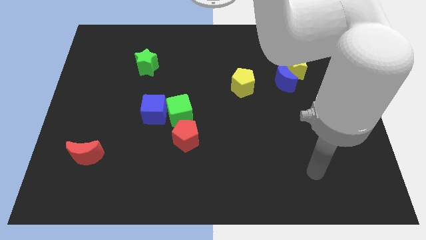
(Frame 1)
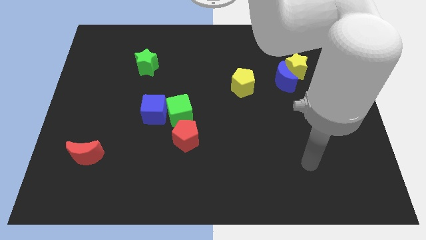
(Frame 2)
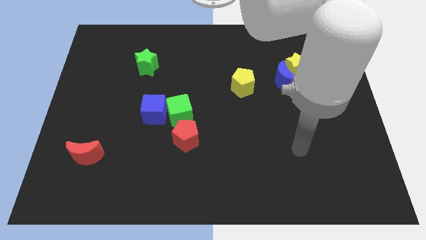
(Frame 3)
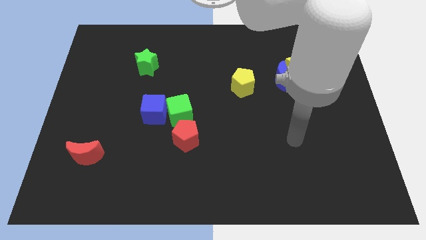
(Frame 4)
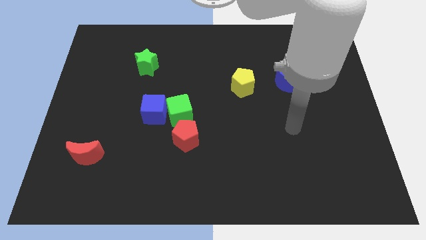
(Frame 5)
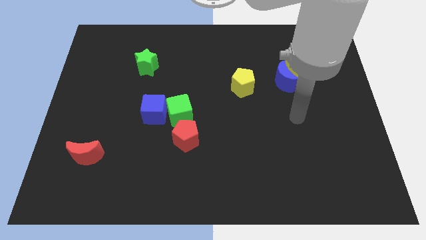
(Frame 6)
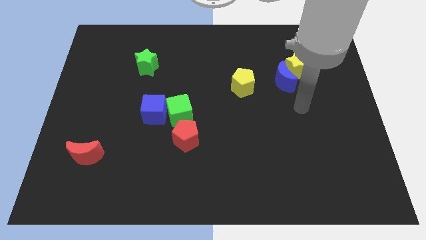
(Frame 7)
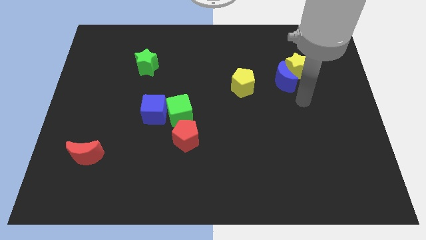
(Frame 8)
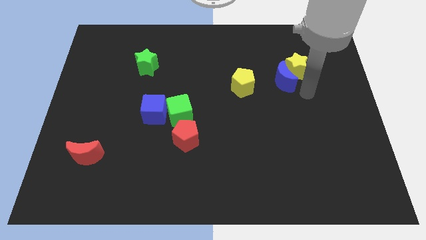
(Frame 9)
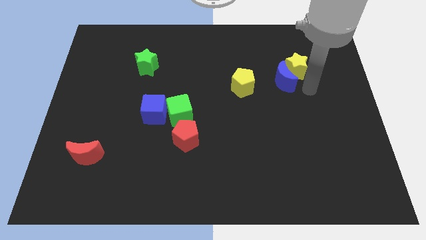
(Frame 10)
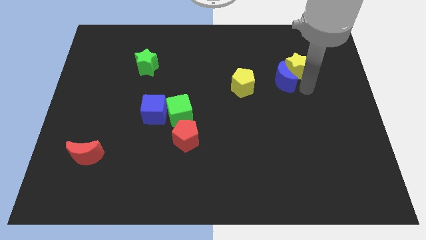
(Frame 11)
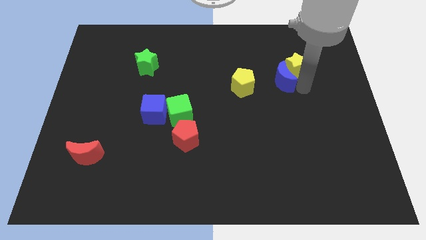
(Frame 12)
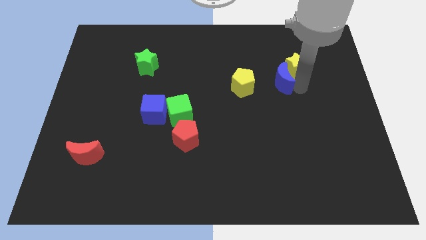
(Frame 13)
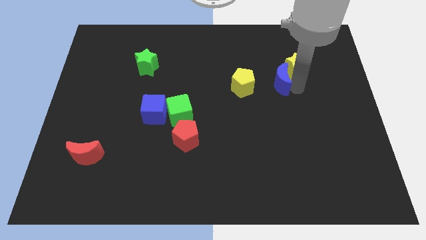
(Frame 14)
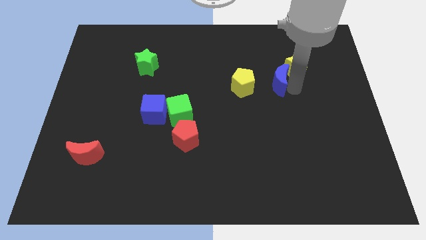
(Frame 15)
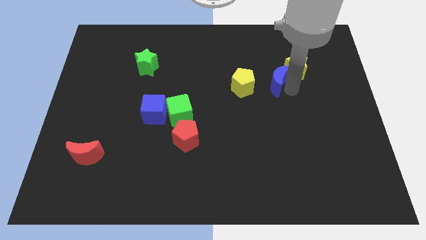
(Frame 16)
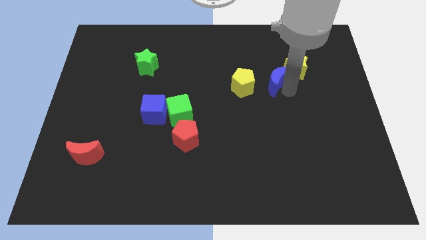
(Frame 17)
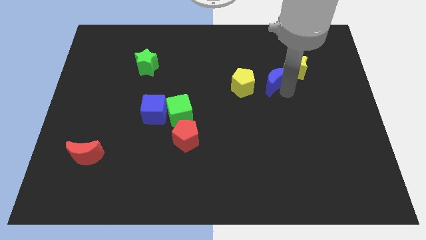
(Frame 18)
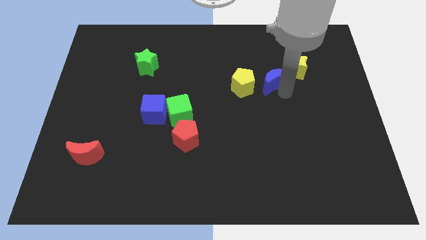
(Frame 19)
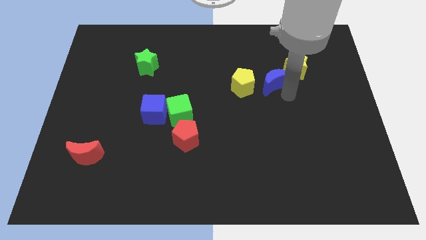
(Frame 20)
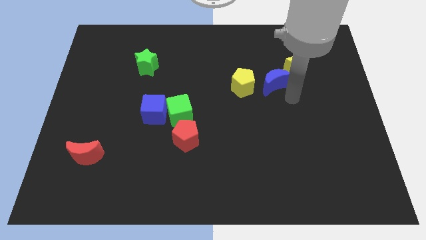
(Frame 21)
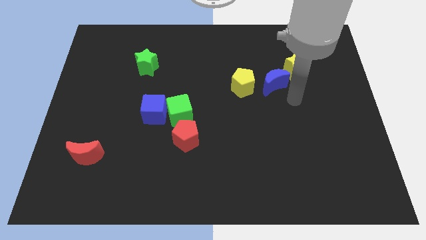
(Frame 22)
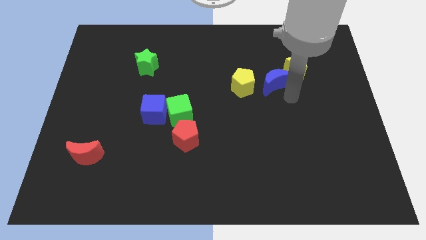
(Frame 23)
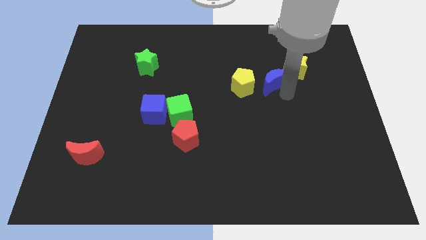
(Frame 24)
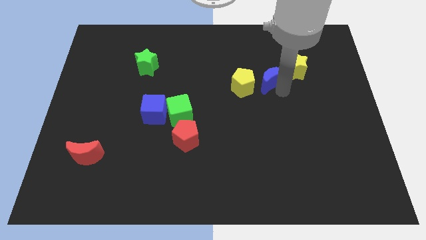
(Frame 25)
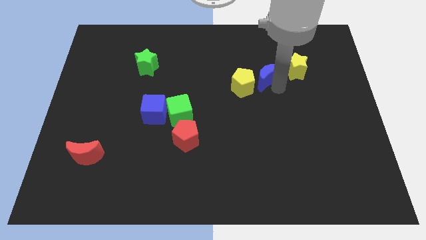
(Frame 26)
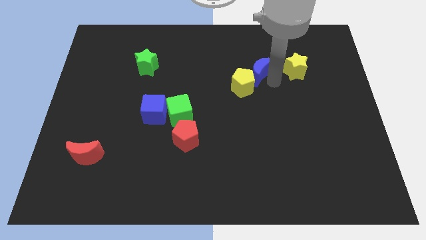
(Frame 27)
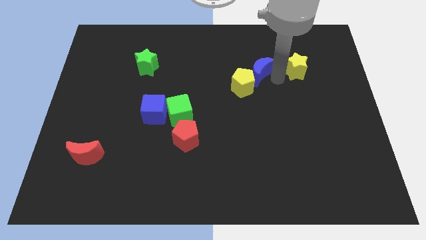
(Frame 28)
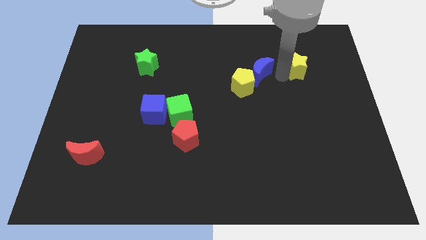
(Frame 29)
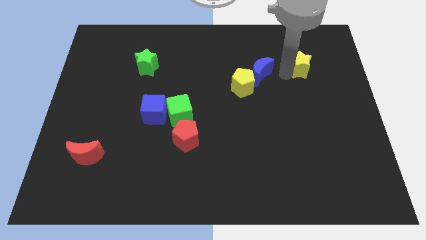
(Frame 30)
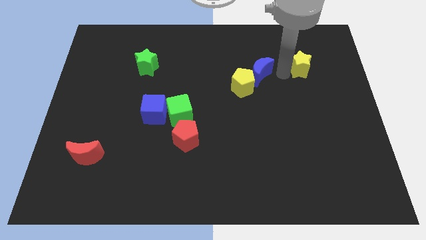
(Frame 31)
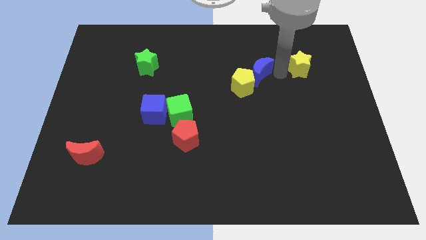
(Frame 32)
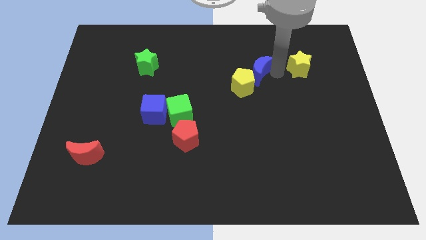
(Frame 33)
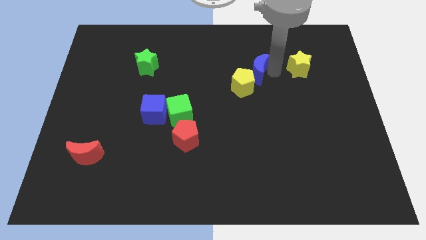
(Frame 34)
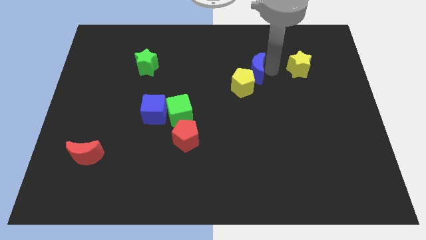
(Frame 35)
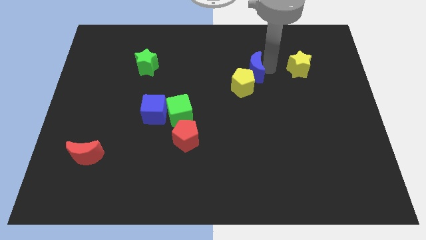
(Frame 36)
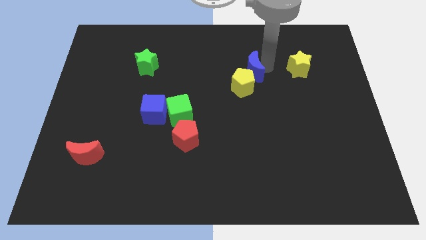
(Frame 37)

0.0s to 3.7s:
move the blue moon to the left somewhat

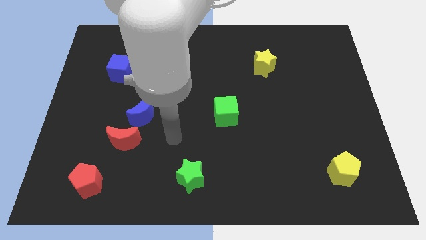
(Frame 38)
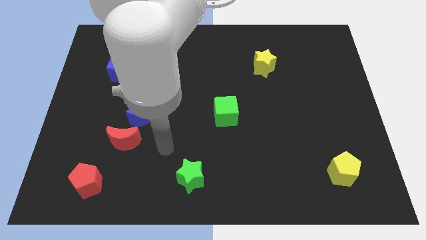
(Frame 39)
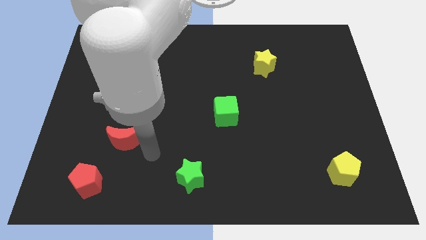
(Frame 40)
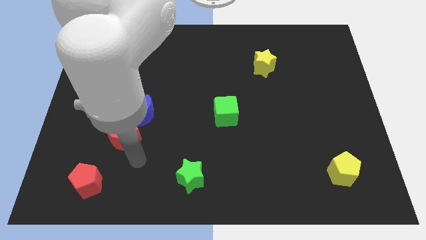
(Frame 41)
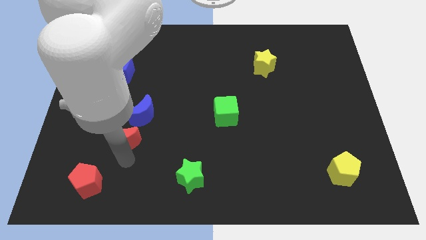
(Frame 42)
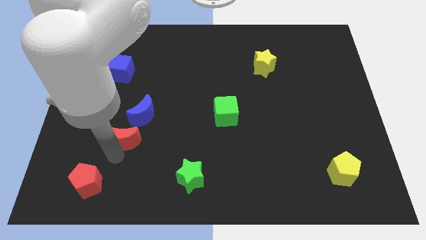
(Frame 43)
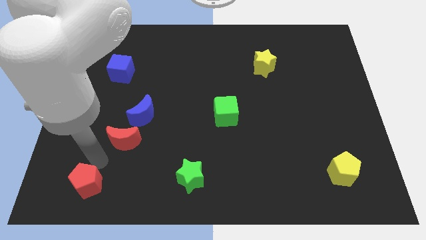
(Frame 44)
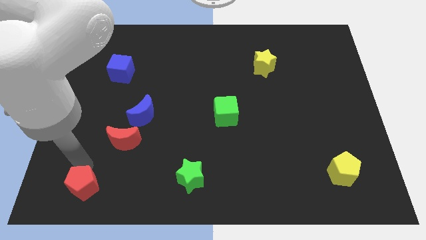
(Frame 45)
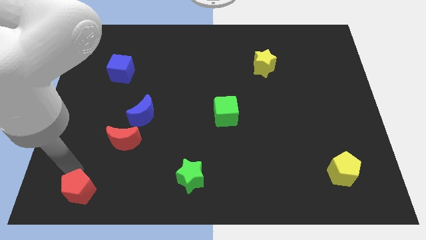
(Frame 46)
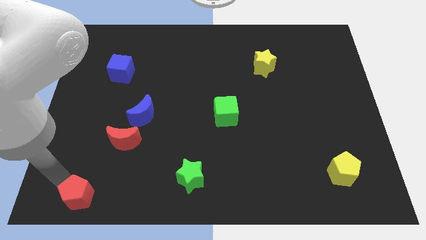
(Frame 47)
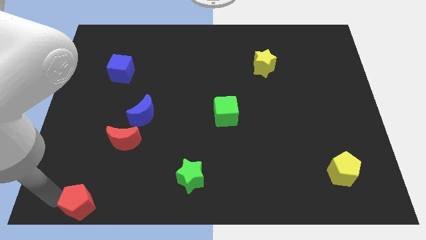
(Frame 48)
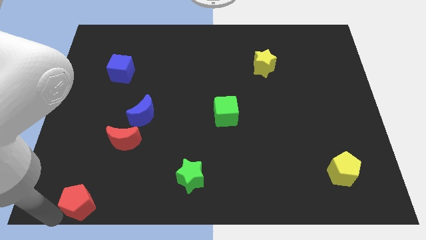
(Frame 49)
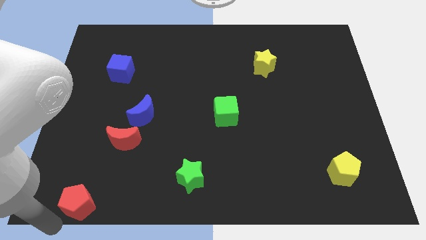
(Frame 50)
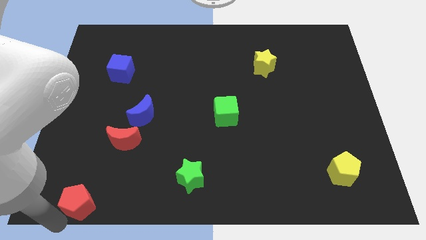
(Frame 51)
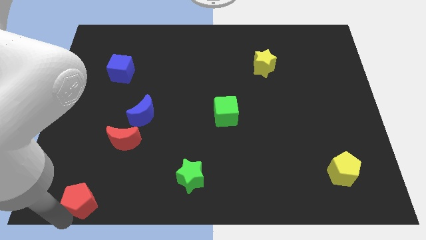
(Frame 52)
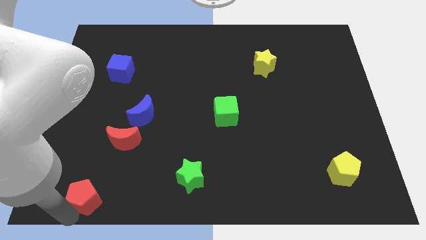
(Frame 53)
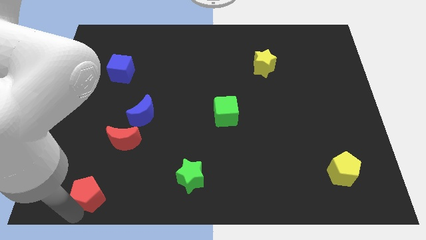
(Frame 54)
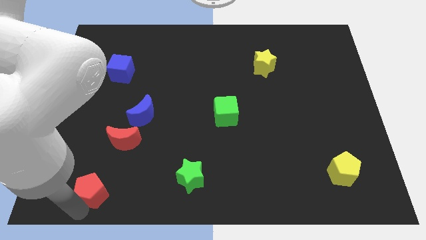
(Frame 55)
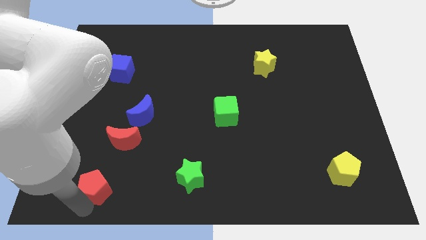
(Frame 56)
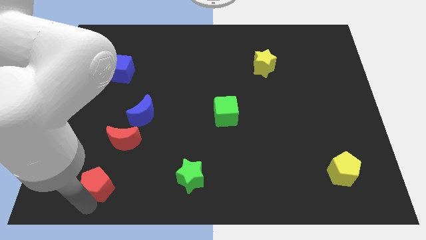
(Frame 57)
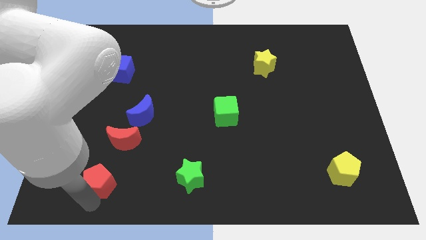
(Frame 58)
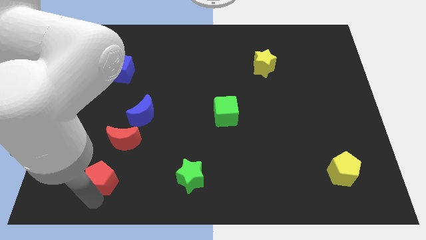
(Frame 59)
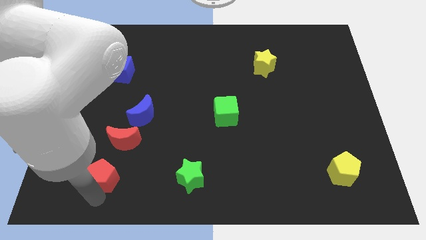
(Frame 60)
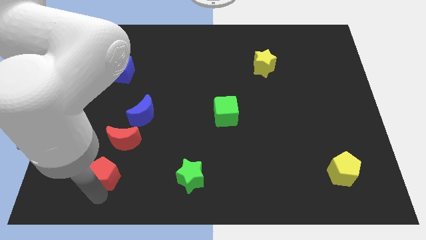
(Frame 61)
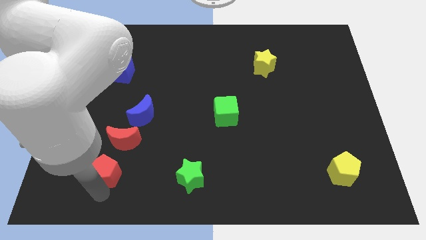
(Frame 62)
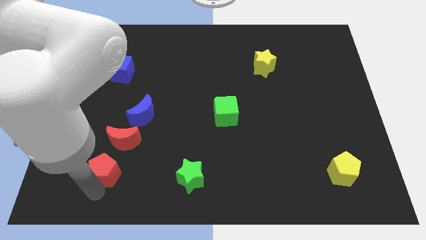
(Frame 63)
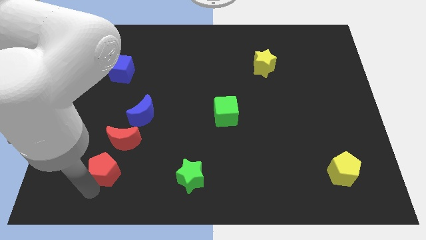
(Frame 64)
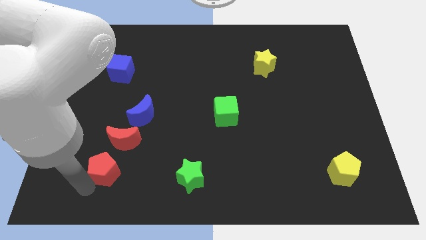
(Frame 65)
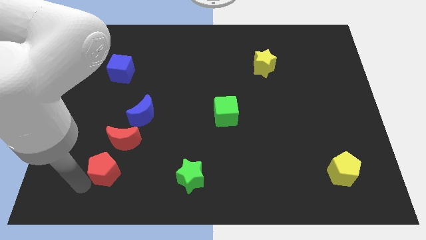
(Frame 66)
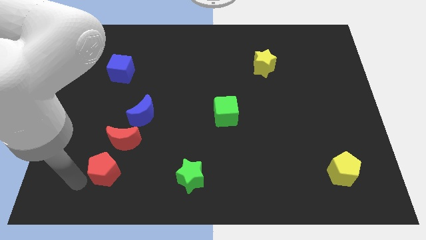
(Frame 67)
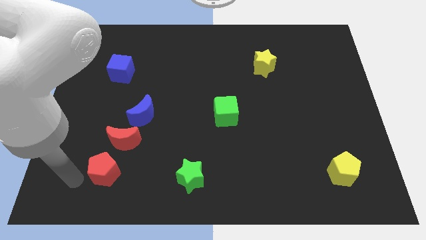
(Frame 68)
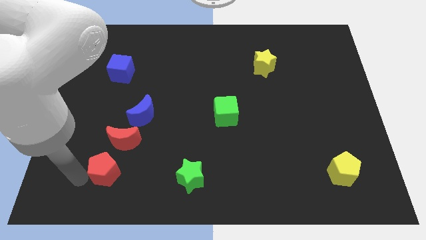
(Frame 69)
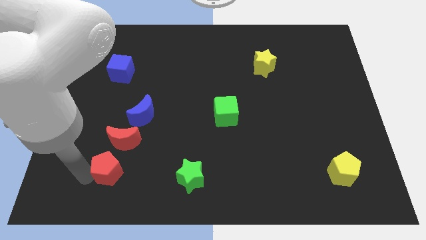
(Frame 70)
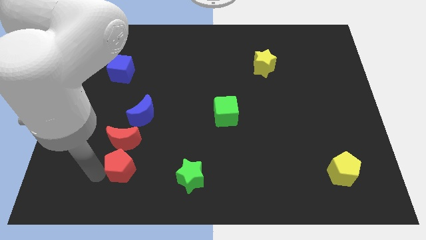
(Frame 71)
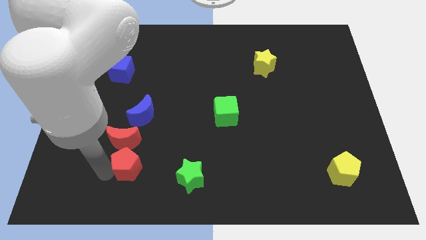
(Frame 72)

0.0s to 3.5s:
slide the red pentagon somewhat upwards and to the right diagonally

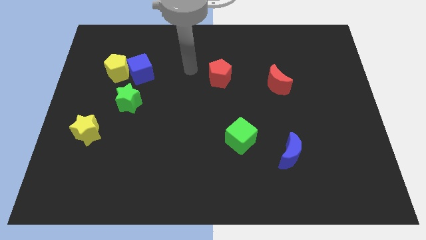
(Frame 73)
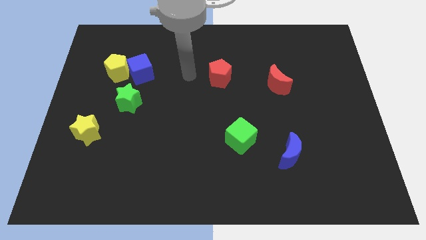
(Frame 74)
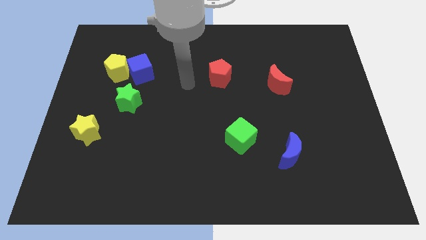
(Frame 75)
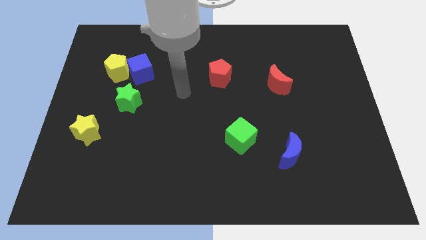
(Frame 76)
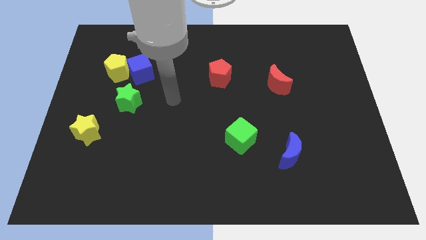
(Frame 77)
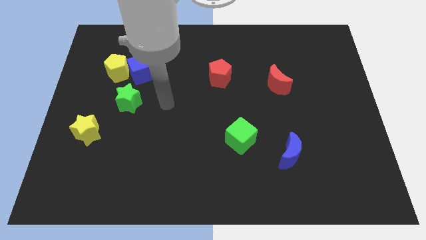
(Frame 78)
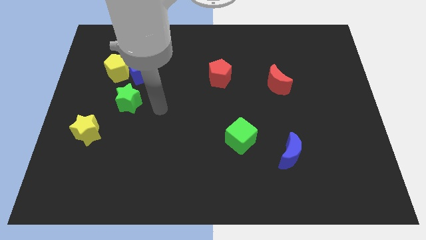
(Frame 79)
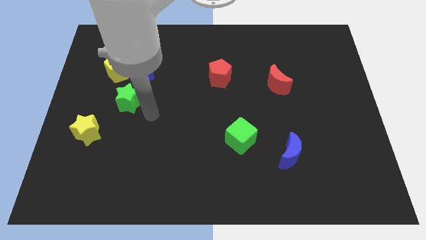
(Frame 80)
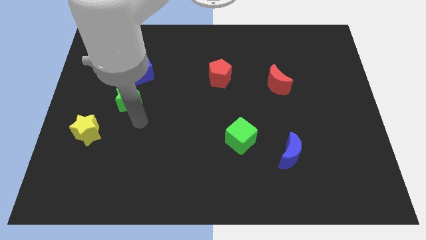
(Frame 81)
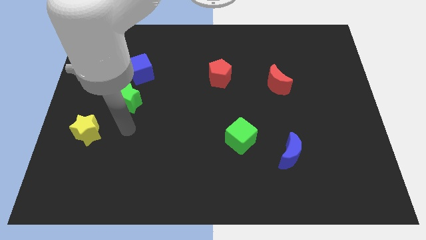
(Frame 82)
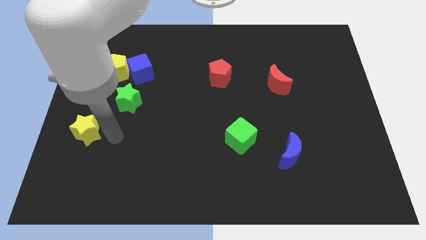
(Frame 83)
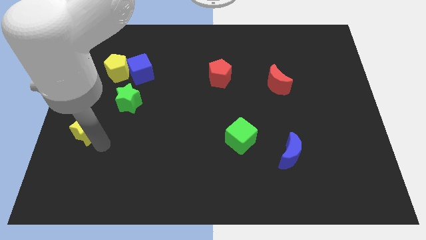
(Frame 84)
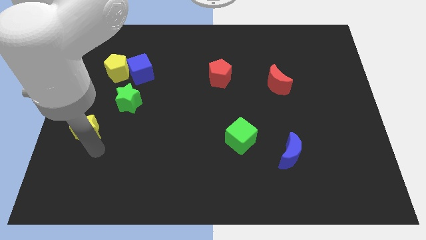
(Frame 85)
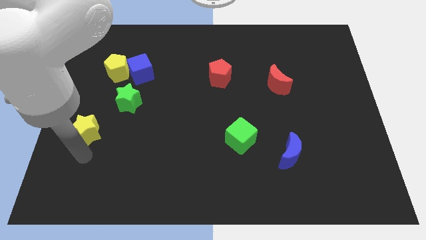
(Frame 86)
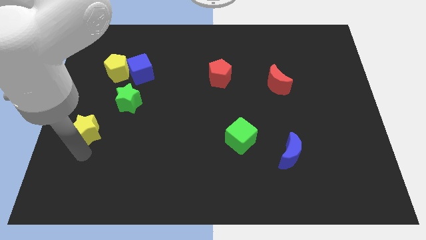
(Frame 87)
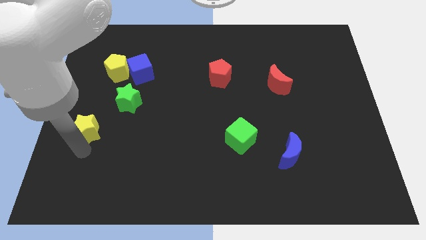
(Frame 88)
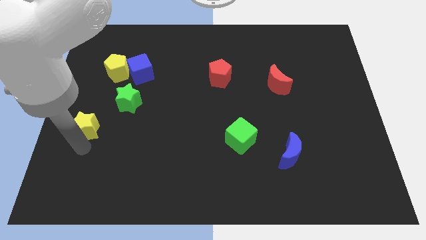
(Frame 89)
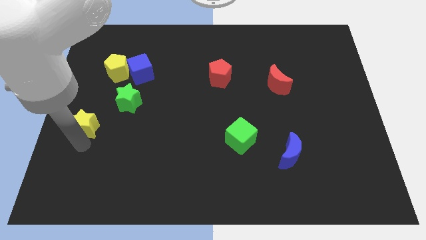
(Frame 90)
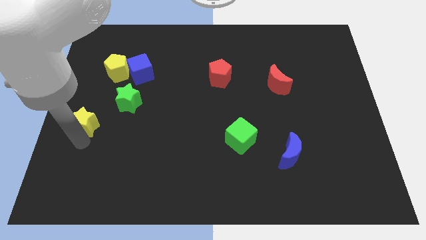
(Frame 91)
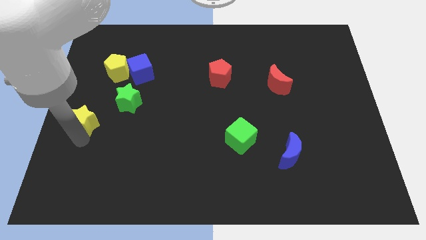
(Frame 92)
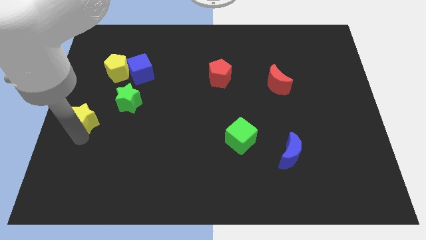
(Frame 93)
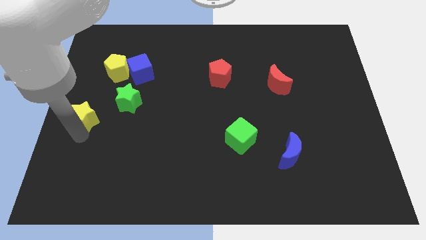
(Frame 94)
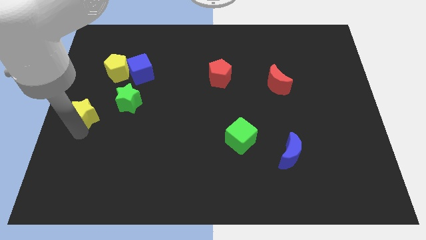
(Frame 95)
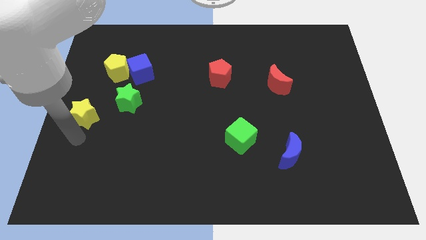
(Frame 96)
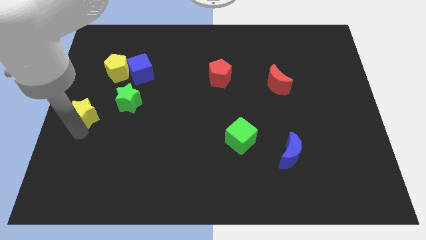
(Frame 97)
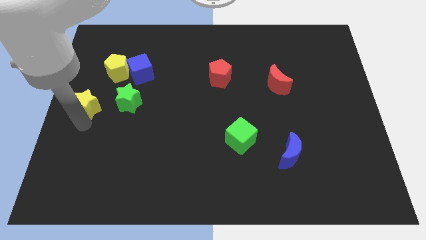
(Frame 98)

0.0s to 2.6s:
slide the yellow star upwards a little bit
